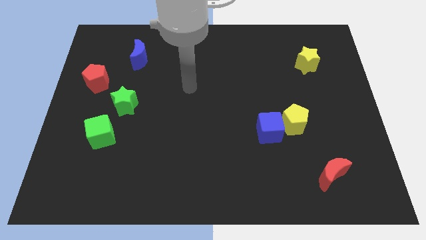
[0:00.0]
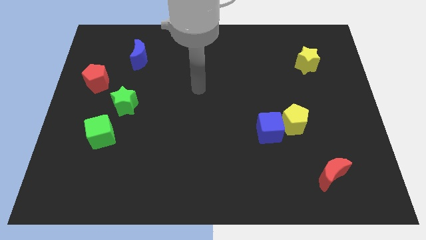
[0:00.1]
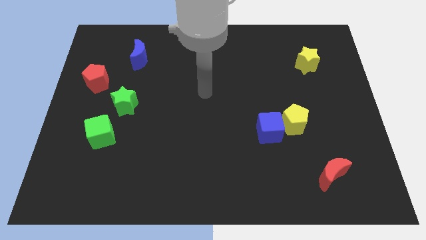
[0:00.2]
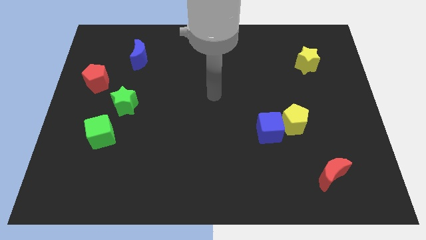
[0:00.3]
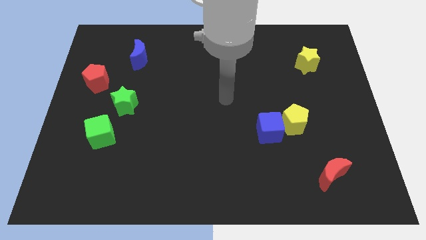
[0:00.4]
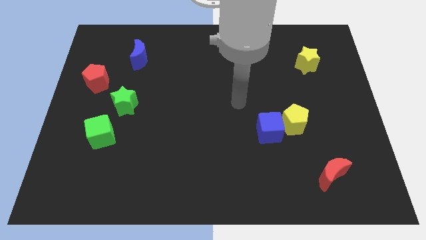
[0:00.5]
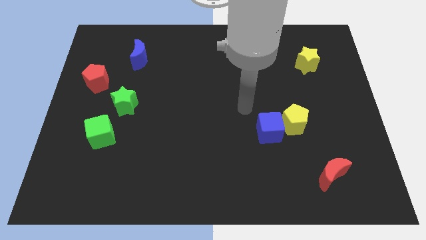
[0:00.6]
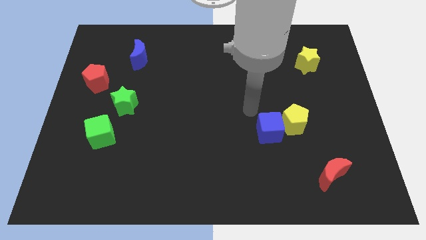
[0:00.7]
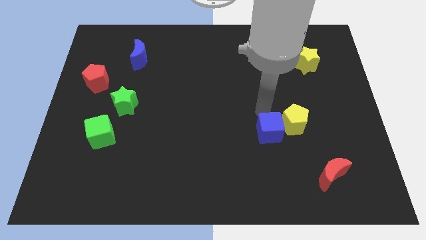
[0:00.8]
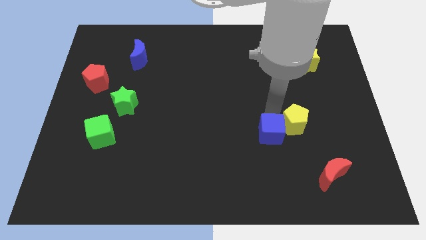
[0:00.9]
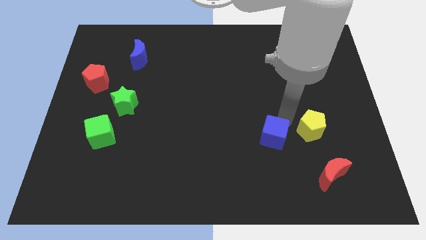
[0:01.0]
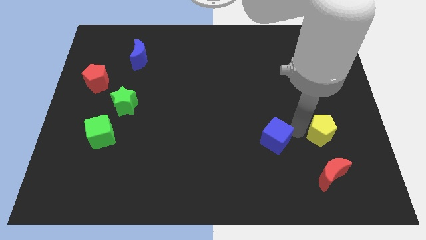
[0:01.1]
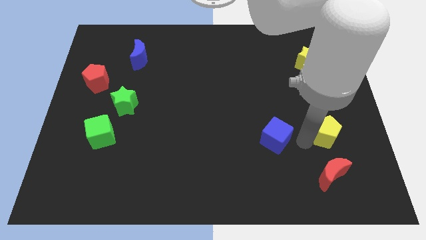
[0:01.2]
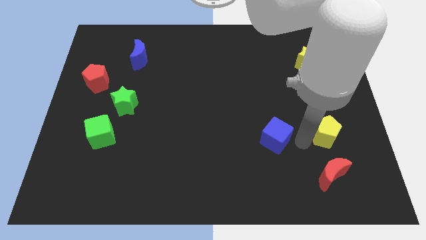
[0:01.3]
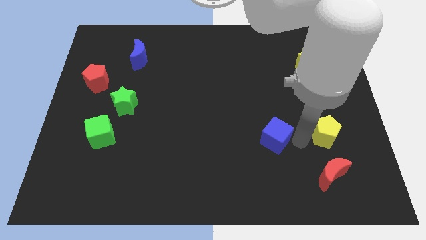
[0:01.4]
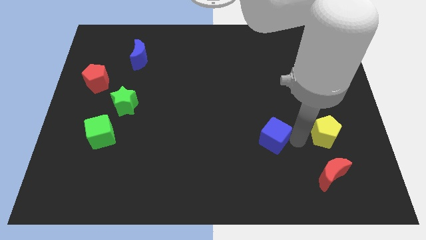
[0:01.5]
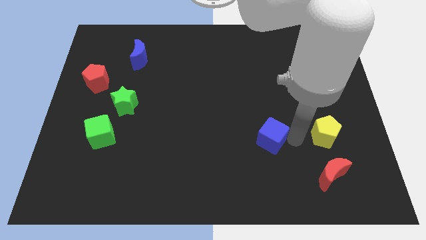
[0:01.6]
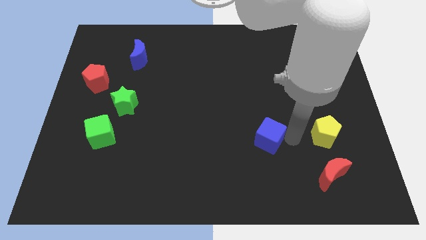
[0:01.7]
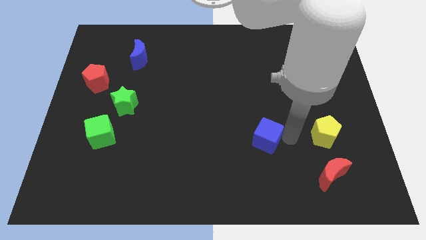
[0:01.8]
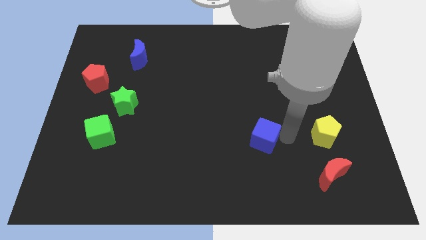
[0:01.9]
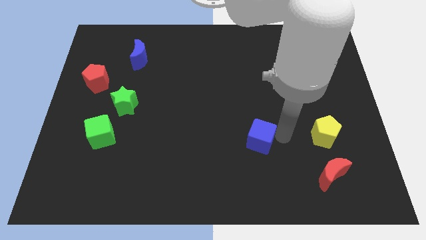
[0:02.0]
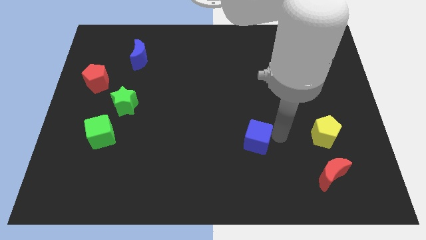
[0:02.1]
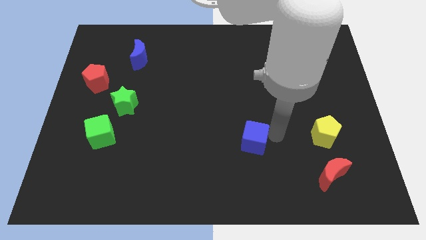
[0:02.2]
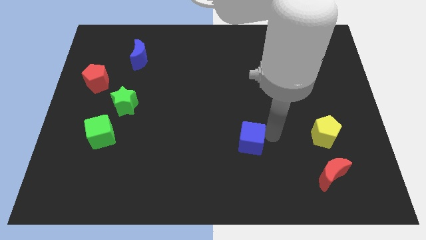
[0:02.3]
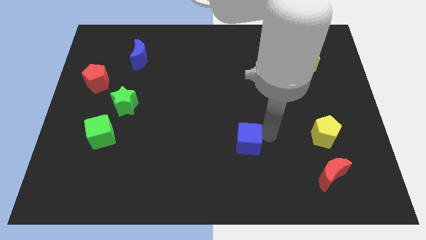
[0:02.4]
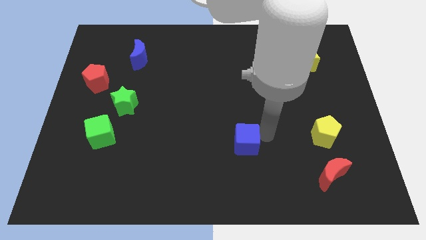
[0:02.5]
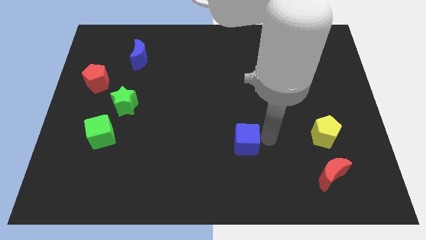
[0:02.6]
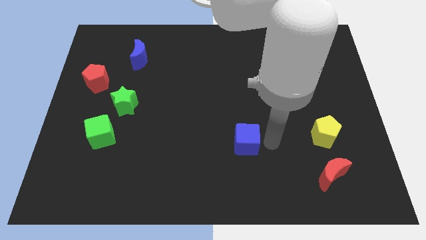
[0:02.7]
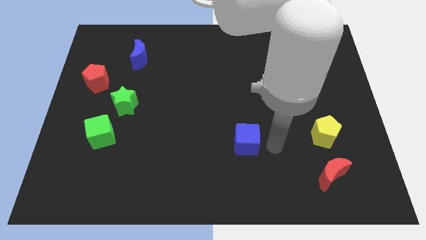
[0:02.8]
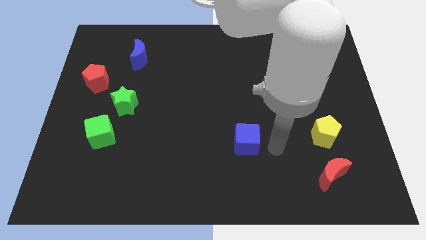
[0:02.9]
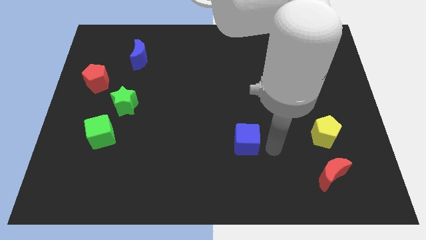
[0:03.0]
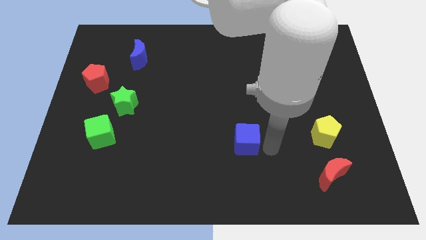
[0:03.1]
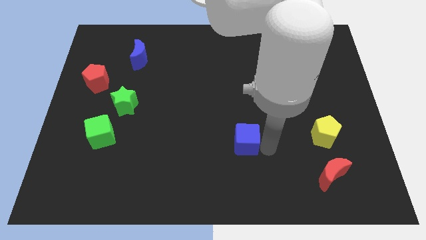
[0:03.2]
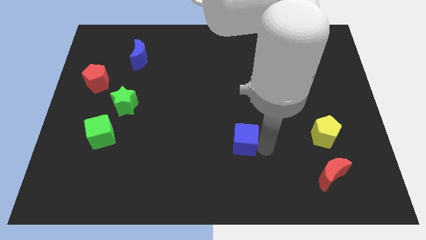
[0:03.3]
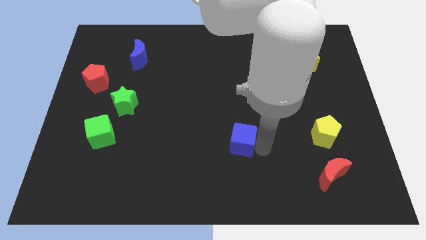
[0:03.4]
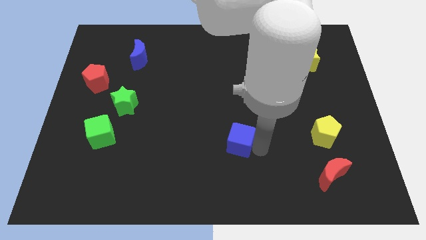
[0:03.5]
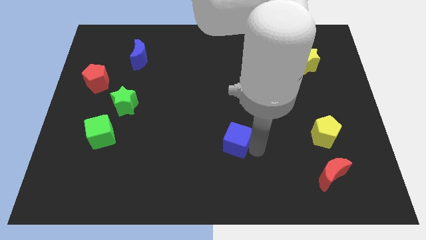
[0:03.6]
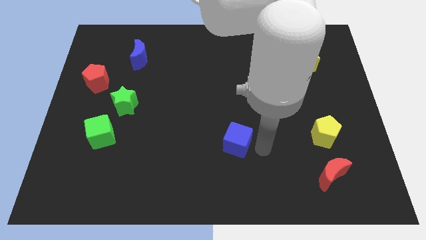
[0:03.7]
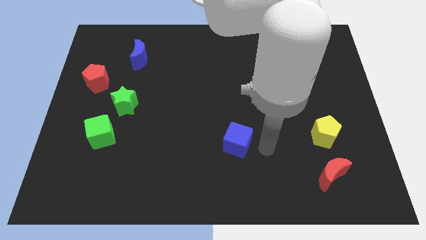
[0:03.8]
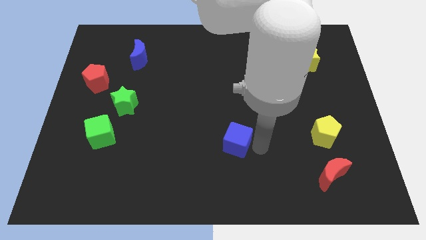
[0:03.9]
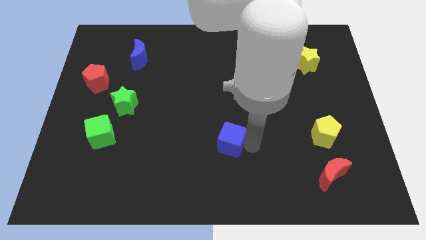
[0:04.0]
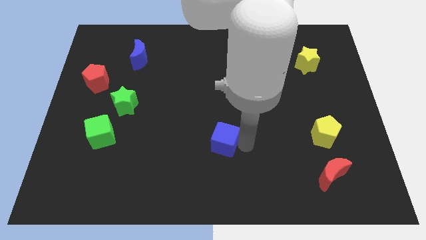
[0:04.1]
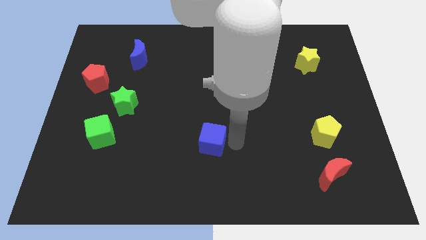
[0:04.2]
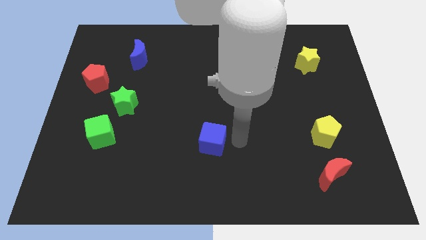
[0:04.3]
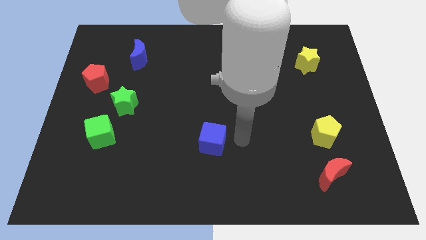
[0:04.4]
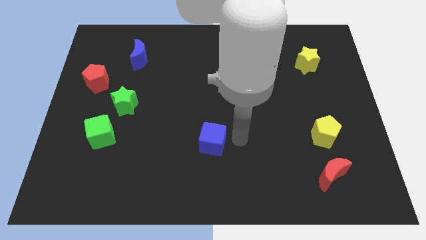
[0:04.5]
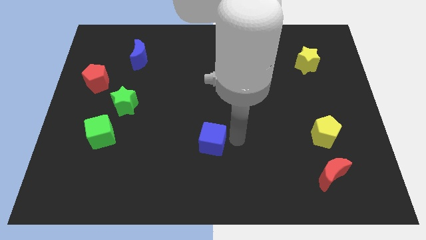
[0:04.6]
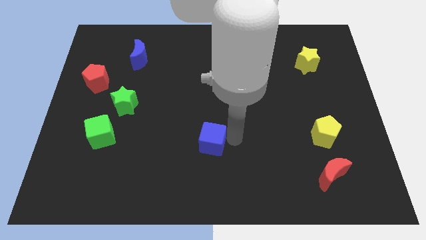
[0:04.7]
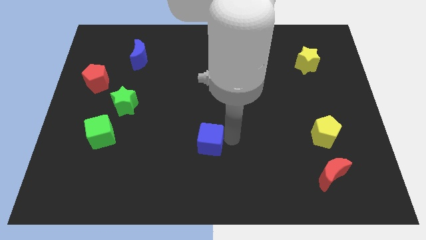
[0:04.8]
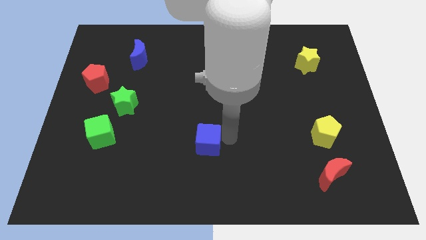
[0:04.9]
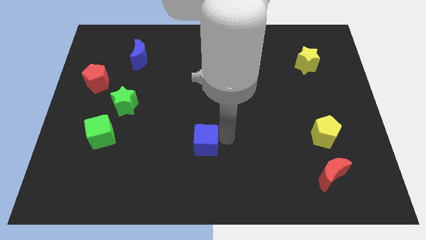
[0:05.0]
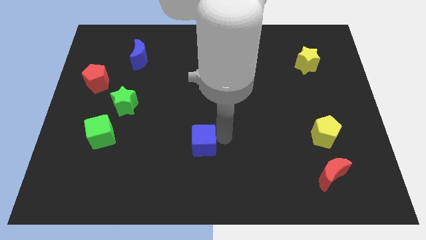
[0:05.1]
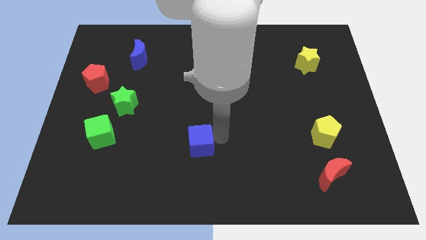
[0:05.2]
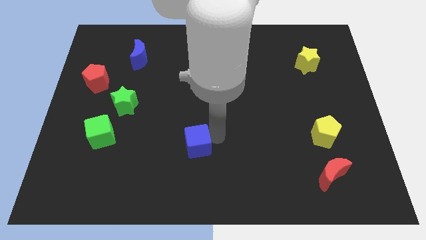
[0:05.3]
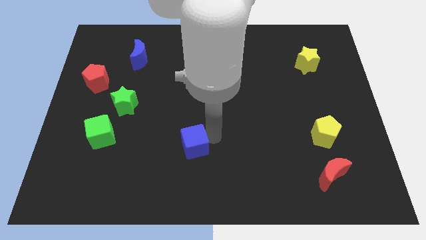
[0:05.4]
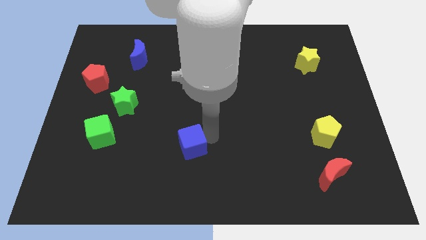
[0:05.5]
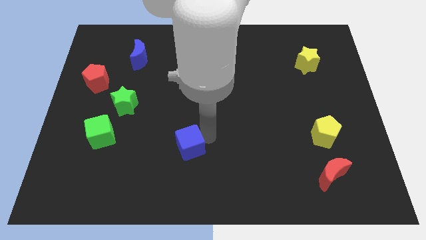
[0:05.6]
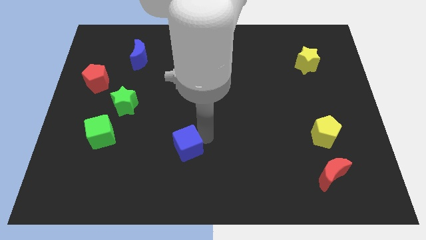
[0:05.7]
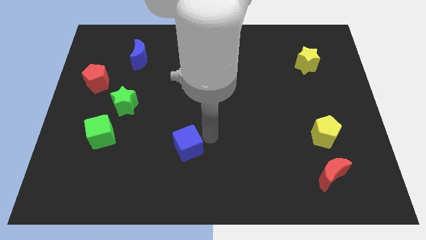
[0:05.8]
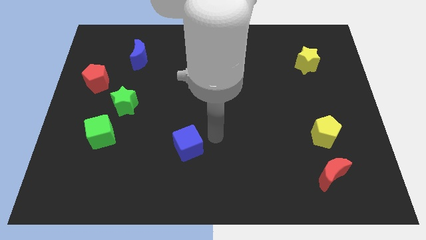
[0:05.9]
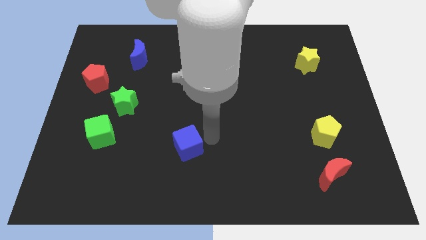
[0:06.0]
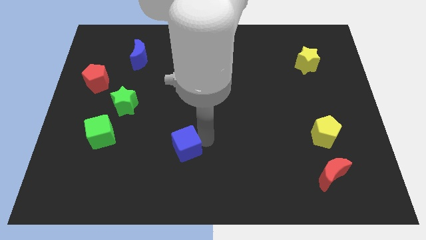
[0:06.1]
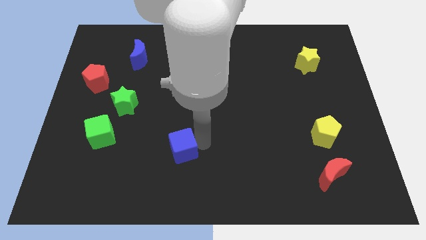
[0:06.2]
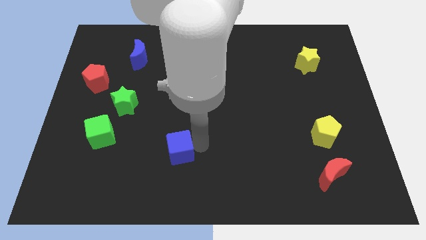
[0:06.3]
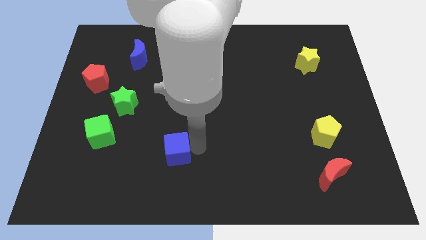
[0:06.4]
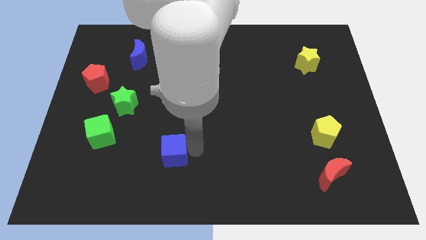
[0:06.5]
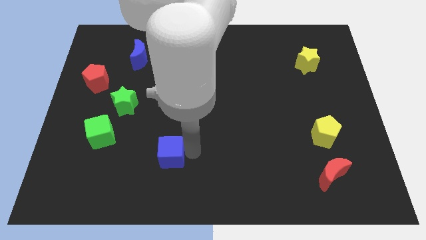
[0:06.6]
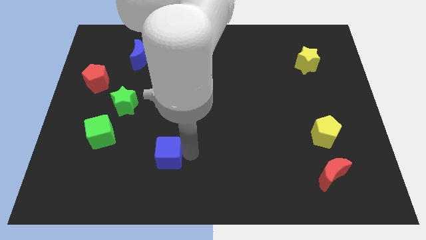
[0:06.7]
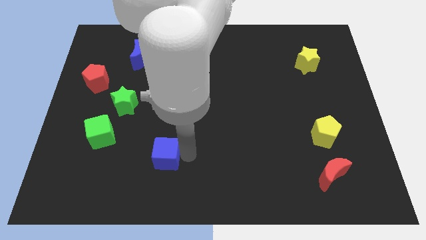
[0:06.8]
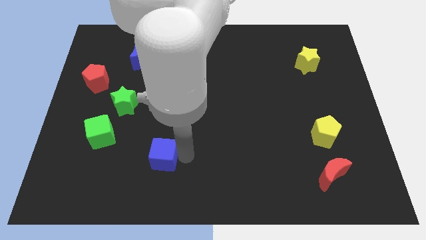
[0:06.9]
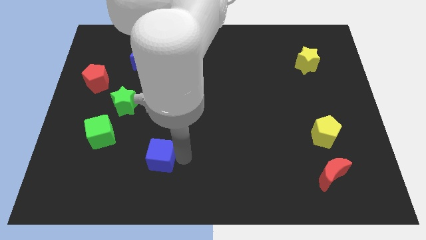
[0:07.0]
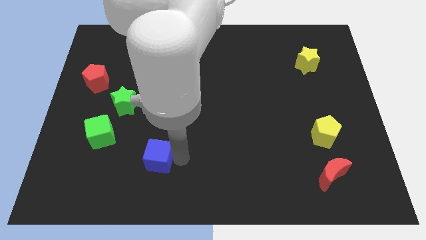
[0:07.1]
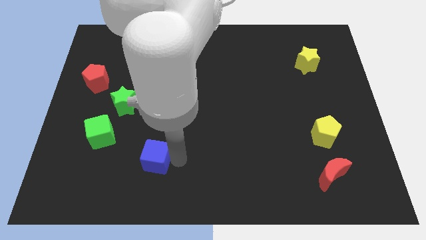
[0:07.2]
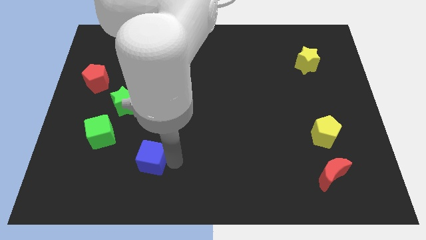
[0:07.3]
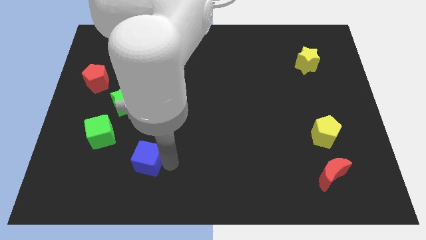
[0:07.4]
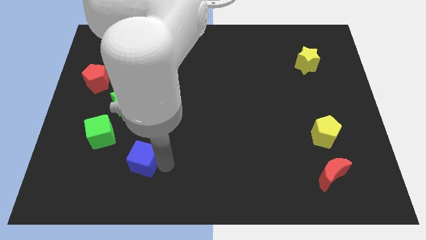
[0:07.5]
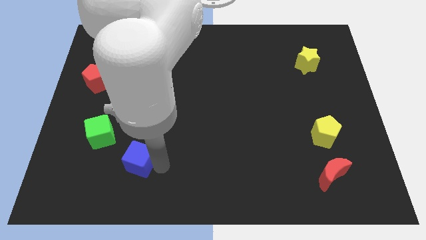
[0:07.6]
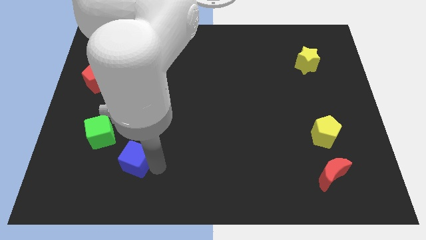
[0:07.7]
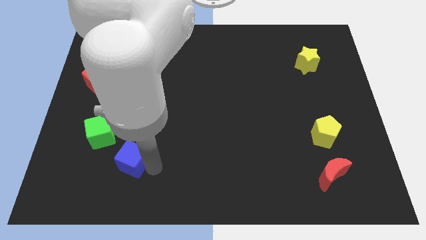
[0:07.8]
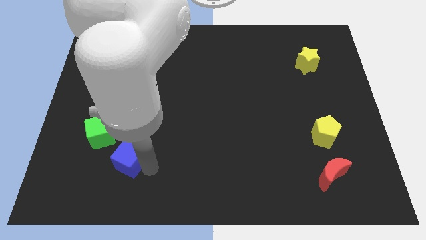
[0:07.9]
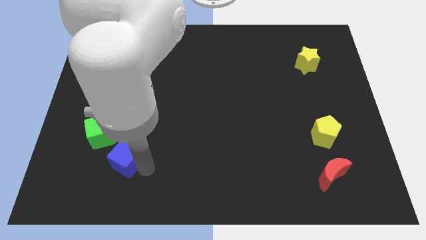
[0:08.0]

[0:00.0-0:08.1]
move the blue cube to the bottom of the green star
